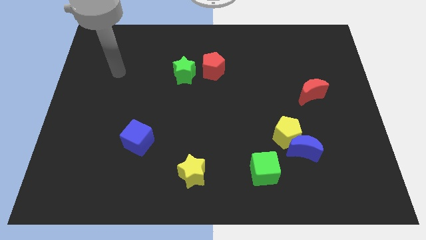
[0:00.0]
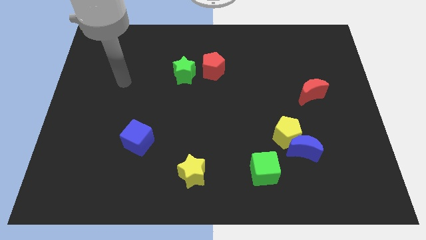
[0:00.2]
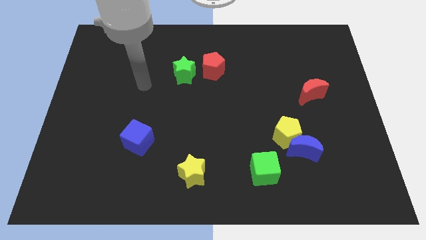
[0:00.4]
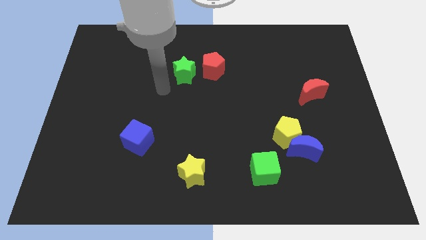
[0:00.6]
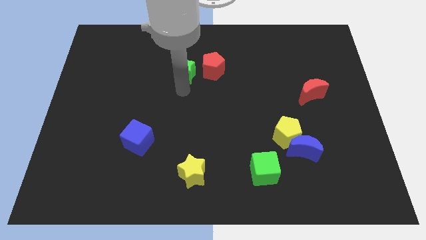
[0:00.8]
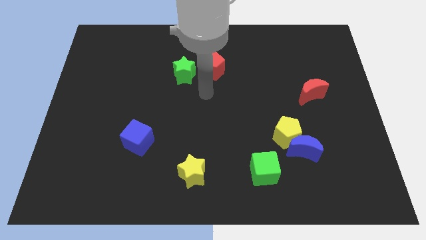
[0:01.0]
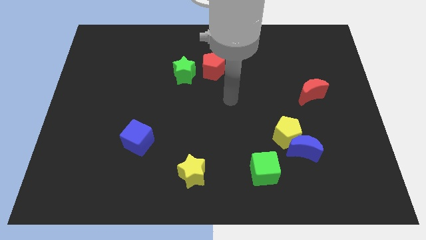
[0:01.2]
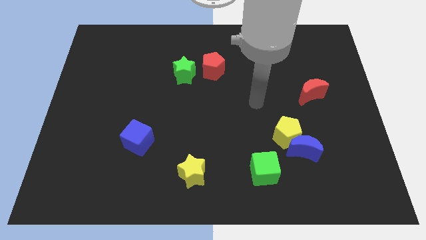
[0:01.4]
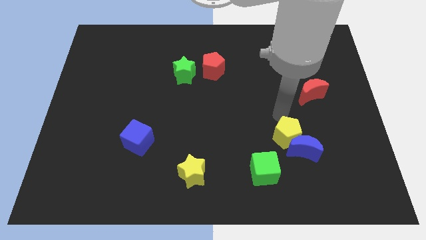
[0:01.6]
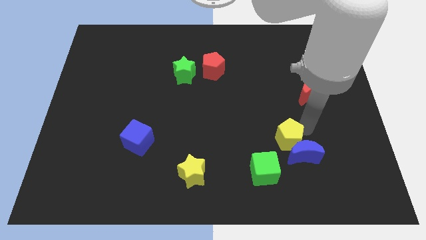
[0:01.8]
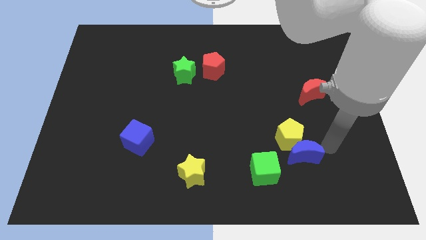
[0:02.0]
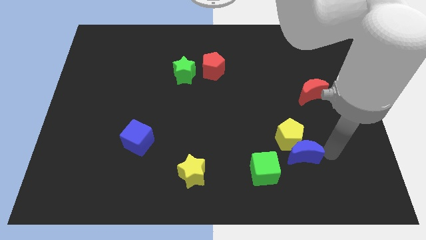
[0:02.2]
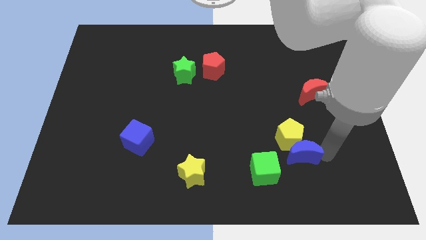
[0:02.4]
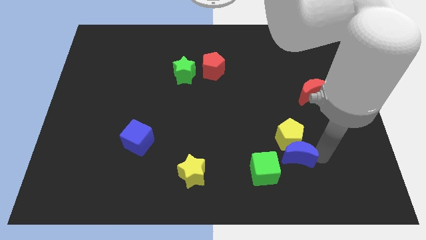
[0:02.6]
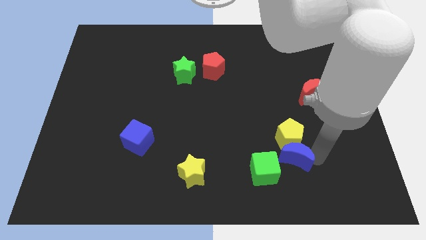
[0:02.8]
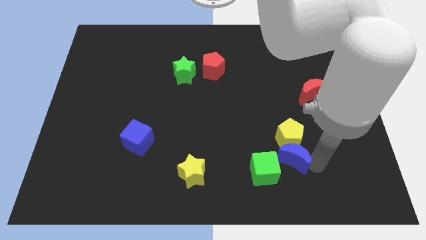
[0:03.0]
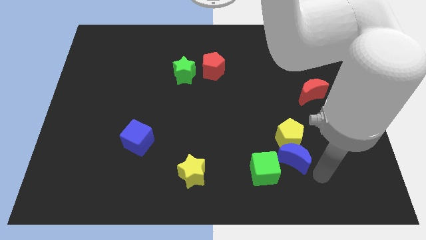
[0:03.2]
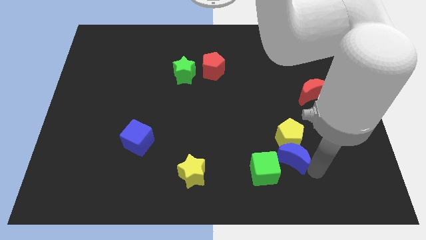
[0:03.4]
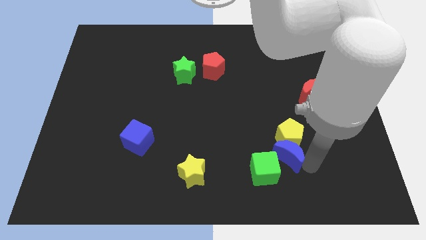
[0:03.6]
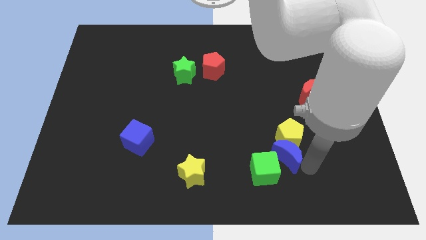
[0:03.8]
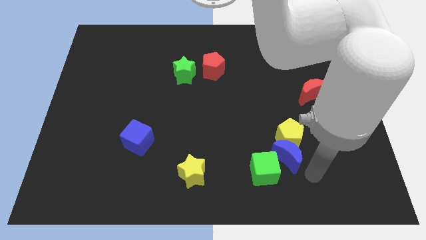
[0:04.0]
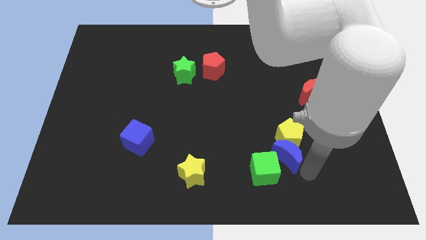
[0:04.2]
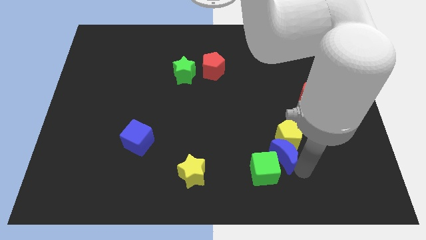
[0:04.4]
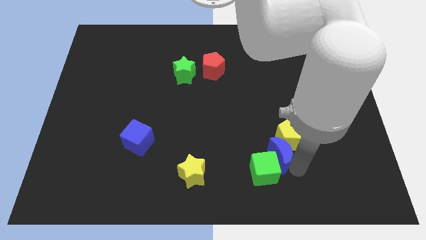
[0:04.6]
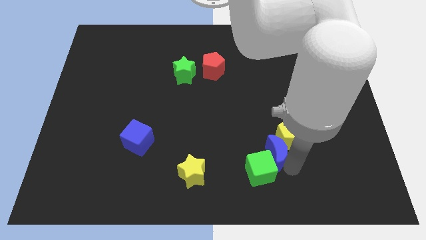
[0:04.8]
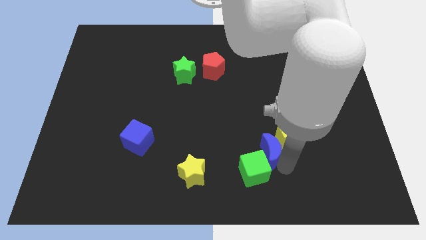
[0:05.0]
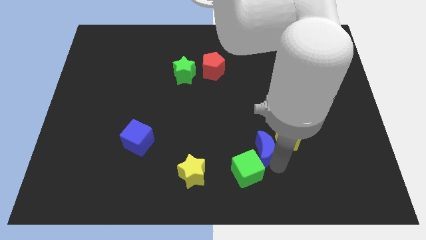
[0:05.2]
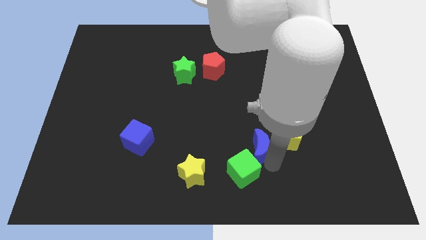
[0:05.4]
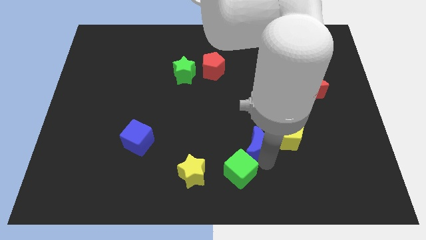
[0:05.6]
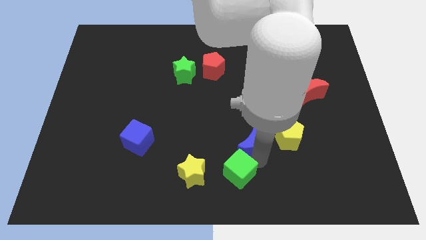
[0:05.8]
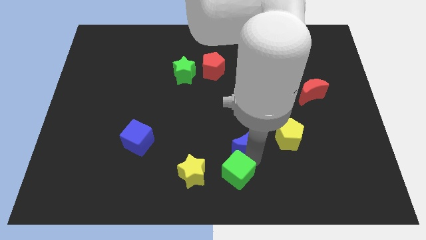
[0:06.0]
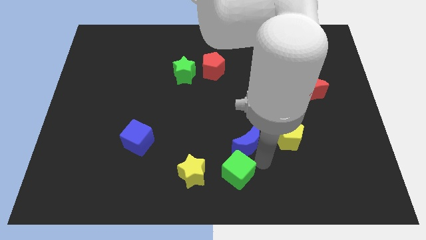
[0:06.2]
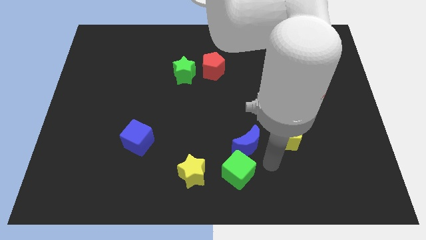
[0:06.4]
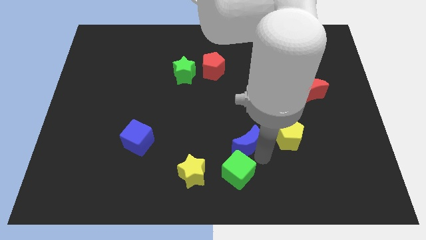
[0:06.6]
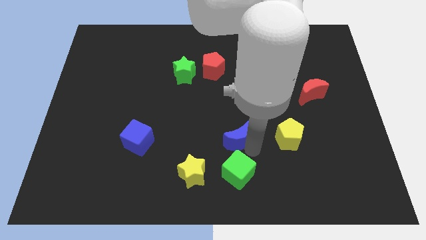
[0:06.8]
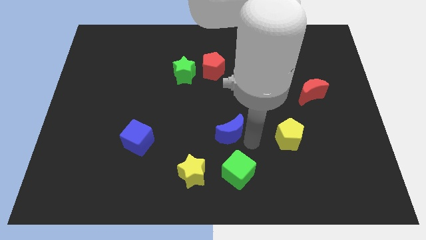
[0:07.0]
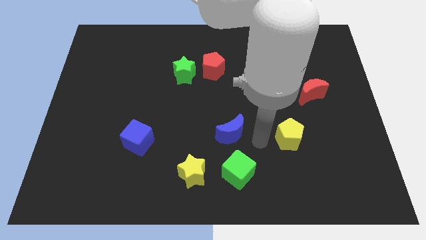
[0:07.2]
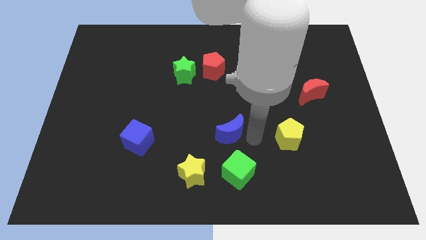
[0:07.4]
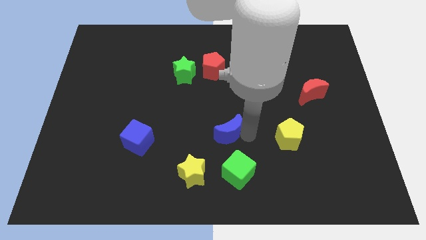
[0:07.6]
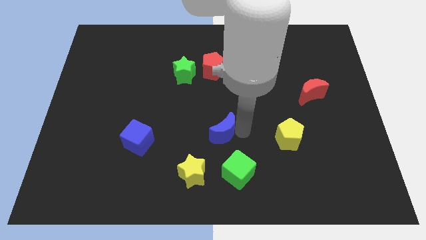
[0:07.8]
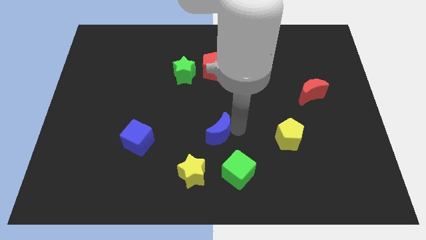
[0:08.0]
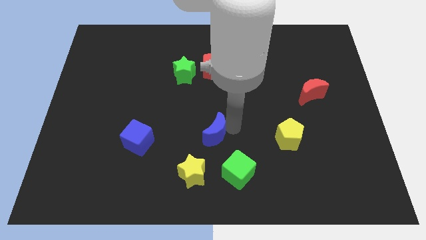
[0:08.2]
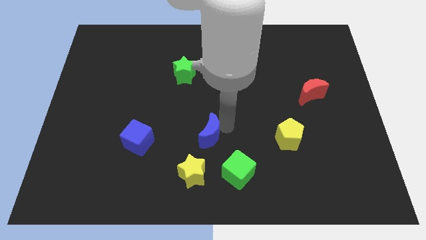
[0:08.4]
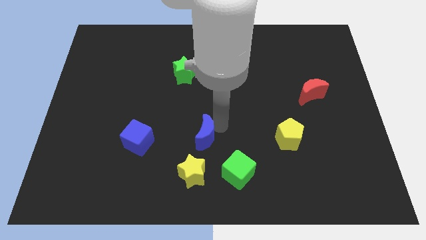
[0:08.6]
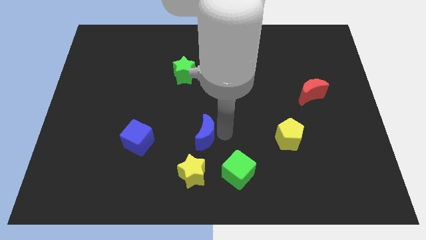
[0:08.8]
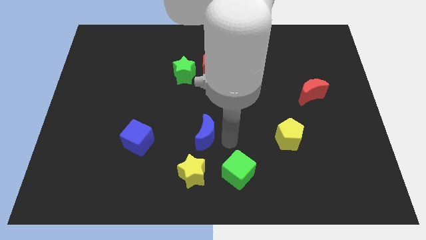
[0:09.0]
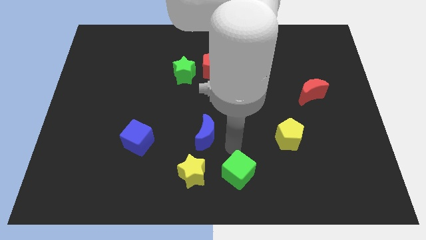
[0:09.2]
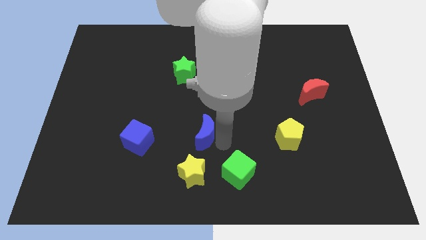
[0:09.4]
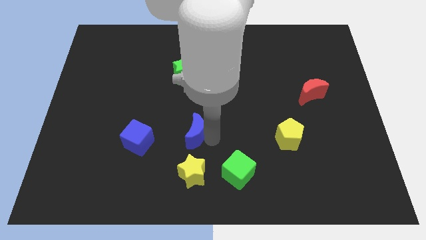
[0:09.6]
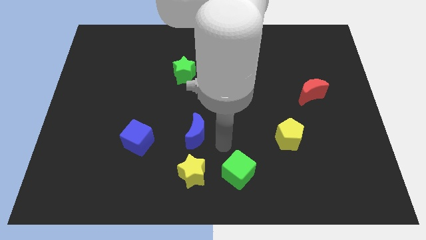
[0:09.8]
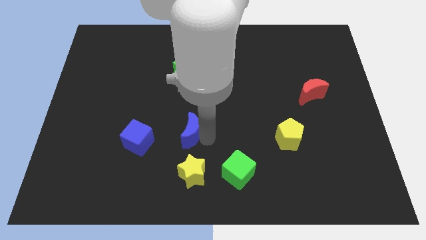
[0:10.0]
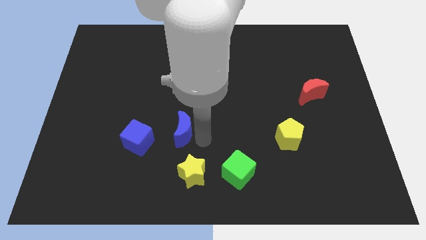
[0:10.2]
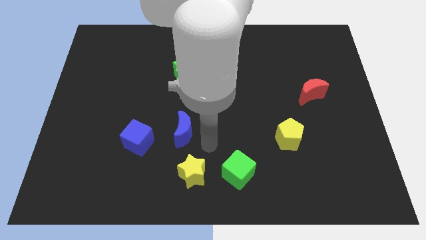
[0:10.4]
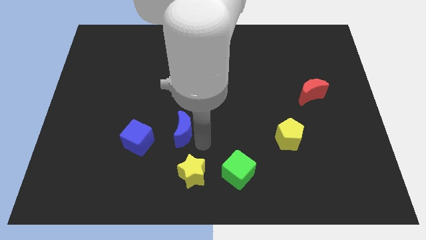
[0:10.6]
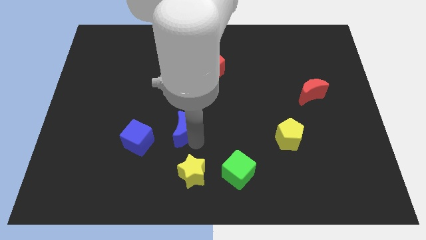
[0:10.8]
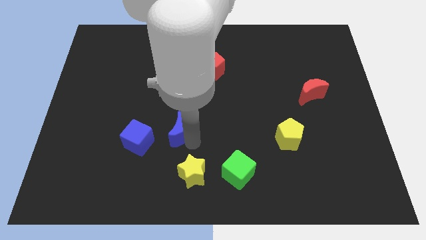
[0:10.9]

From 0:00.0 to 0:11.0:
move the blue moon diagonally up and to the right of the blue cube

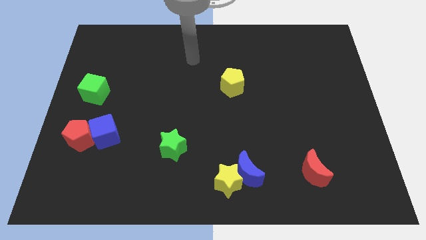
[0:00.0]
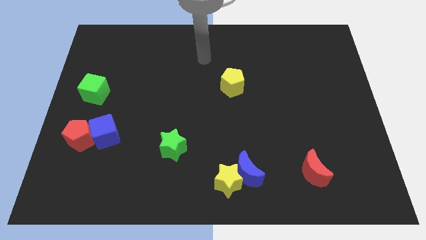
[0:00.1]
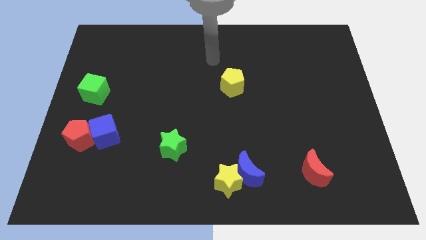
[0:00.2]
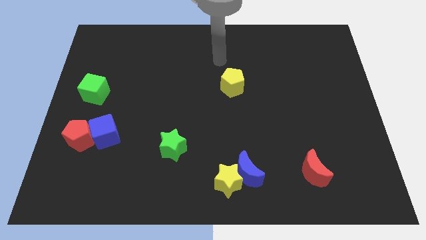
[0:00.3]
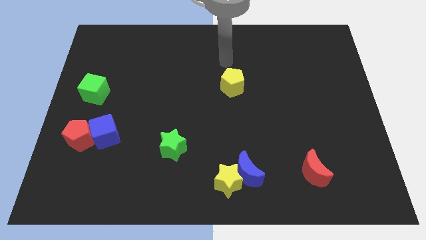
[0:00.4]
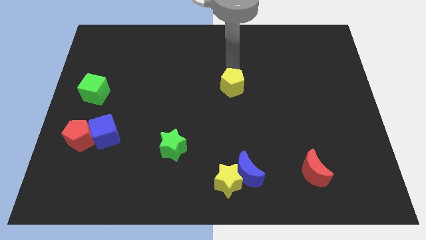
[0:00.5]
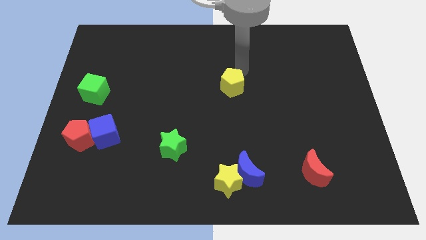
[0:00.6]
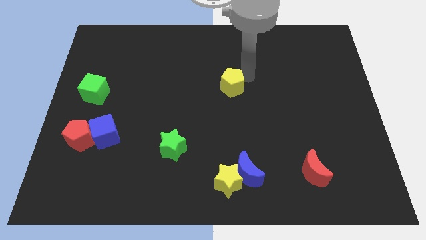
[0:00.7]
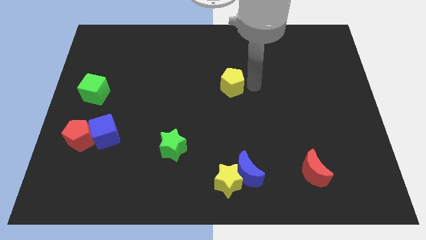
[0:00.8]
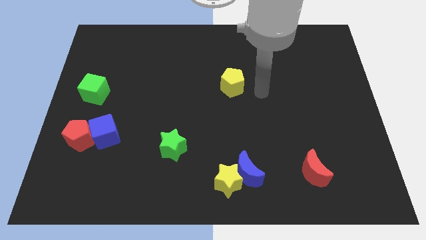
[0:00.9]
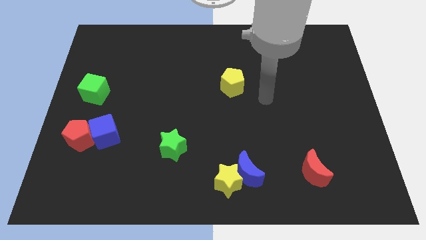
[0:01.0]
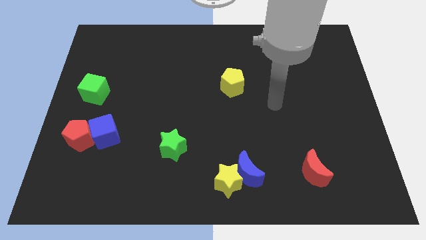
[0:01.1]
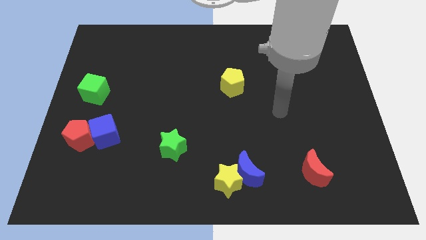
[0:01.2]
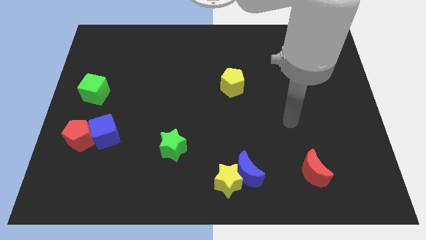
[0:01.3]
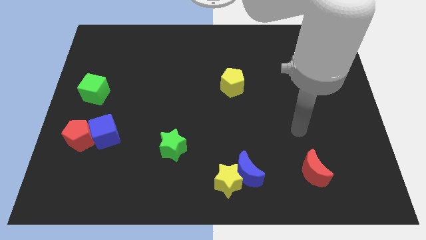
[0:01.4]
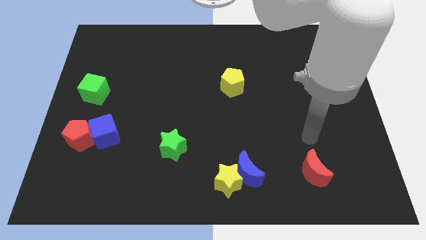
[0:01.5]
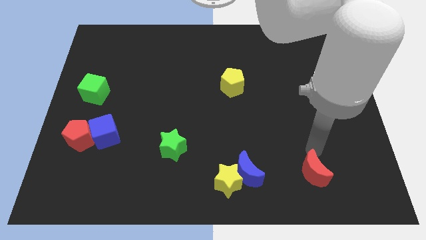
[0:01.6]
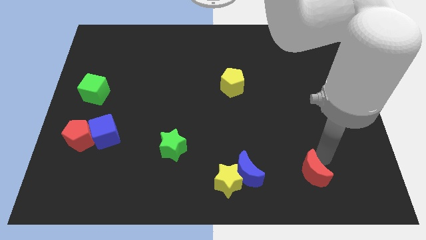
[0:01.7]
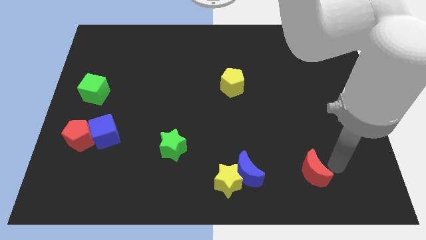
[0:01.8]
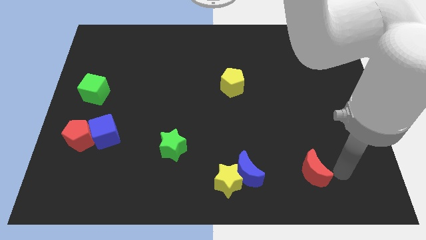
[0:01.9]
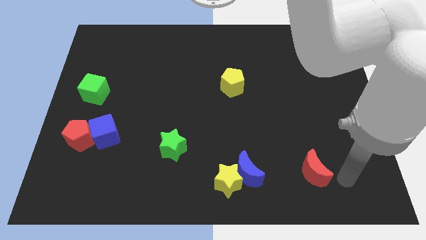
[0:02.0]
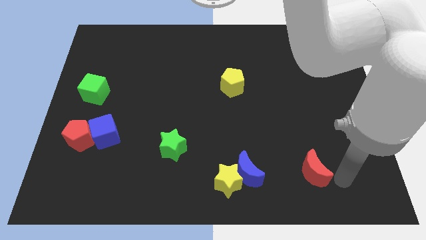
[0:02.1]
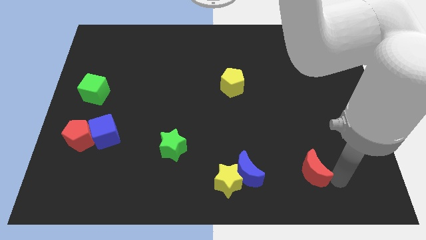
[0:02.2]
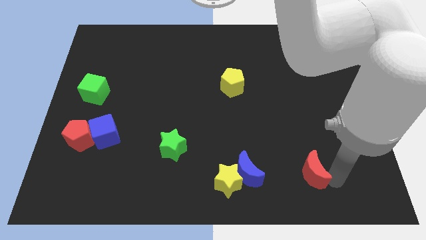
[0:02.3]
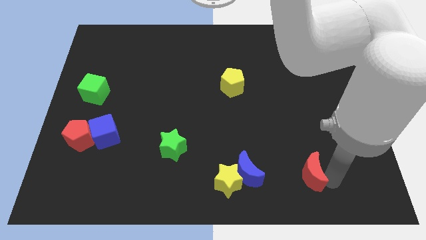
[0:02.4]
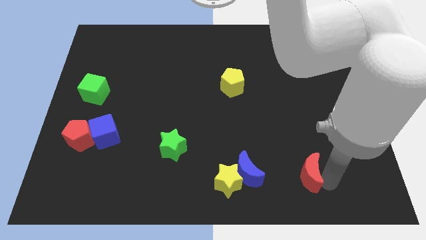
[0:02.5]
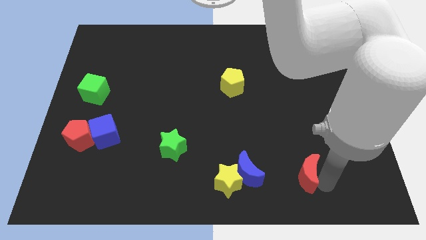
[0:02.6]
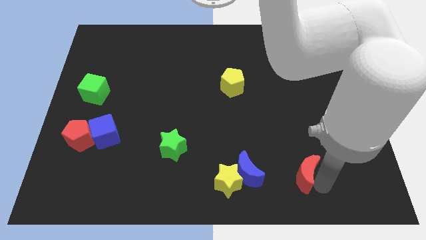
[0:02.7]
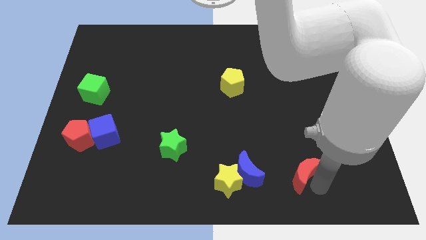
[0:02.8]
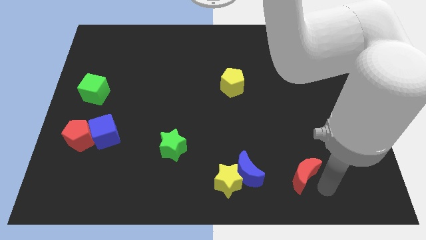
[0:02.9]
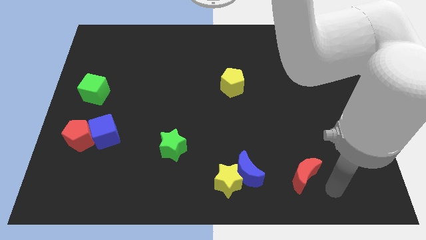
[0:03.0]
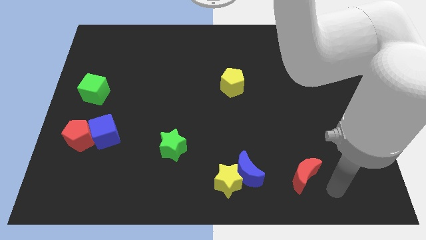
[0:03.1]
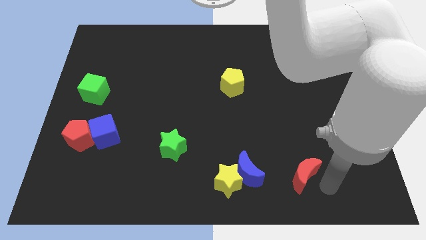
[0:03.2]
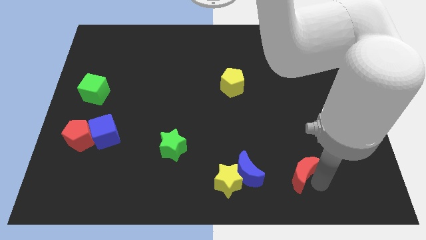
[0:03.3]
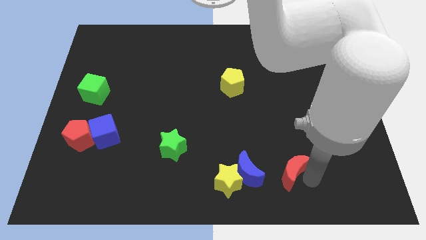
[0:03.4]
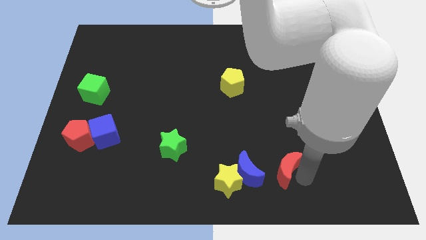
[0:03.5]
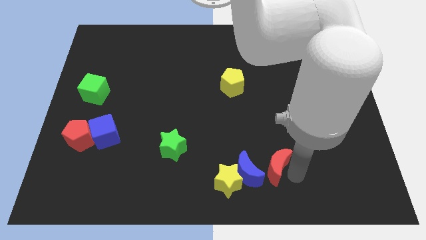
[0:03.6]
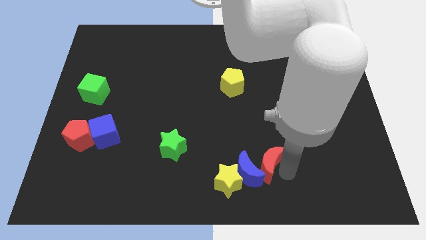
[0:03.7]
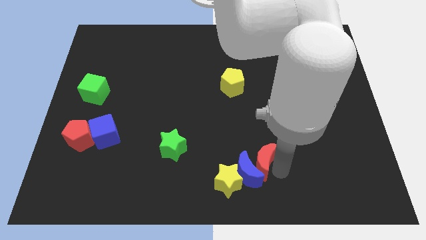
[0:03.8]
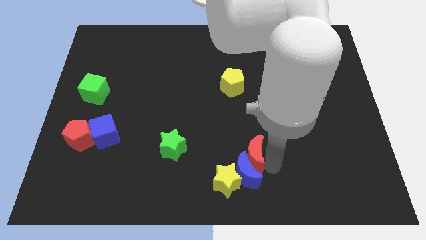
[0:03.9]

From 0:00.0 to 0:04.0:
move the red moon diagonally up and to the left of the blue moon
